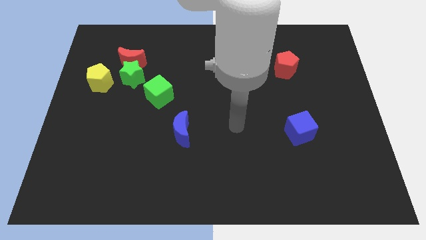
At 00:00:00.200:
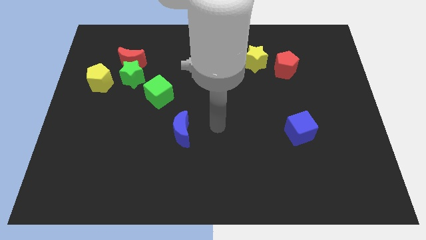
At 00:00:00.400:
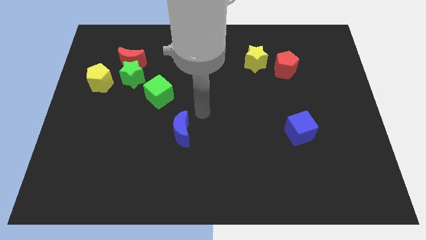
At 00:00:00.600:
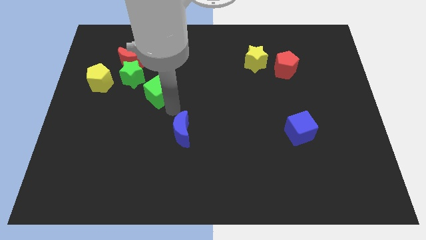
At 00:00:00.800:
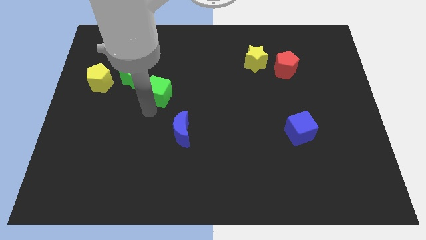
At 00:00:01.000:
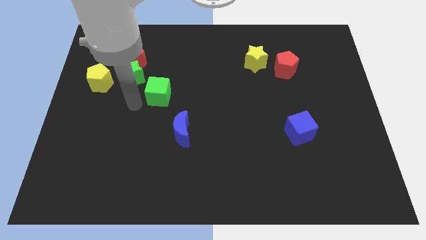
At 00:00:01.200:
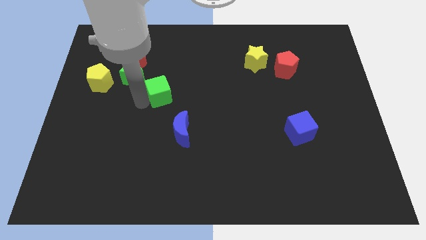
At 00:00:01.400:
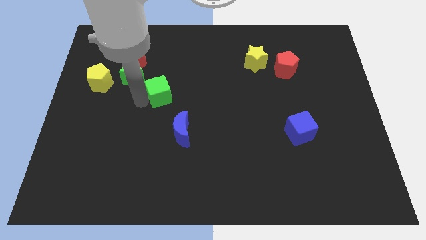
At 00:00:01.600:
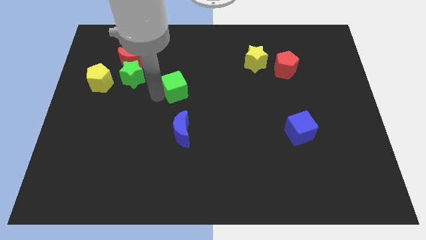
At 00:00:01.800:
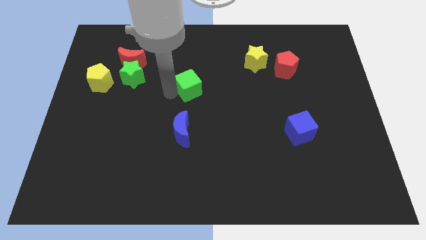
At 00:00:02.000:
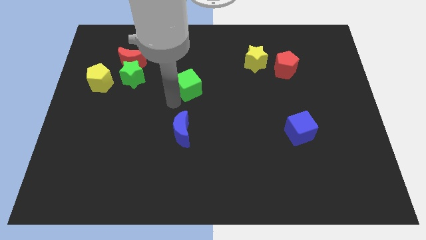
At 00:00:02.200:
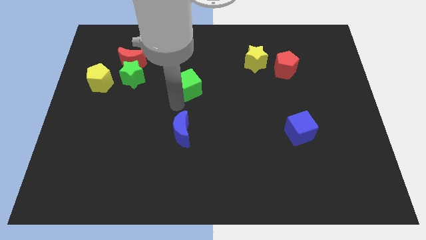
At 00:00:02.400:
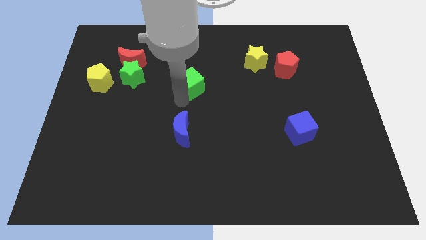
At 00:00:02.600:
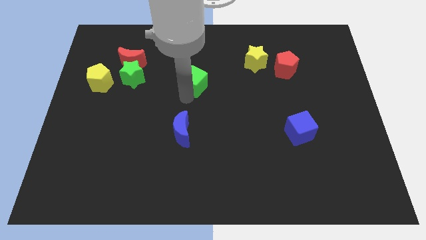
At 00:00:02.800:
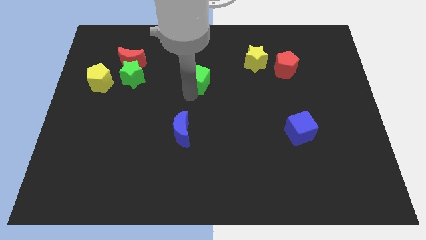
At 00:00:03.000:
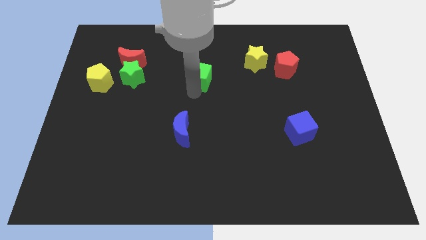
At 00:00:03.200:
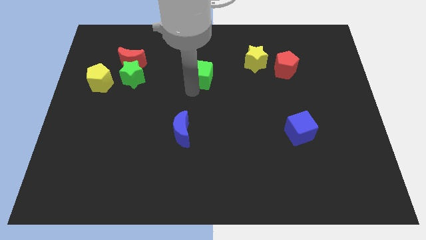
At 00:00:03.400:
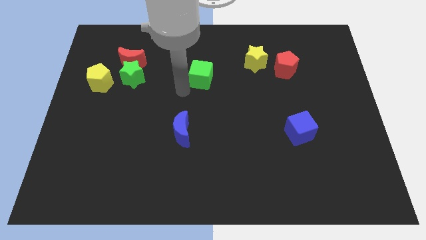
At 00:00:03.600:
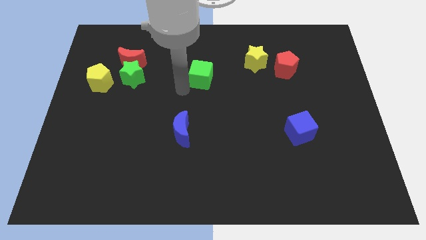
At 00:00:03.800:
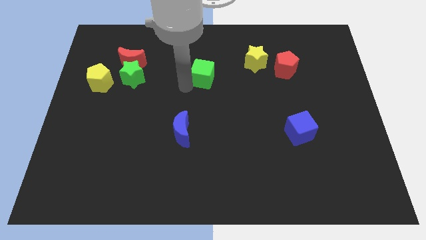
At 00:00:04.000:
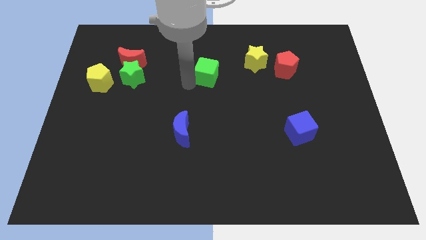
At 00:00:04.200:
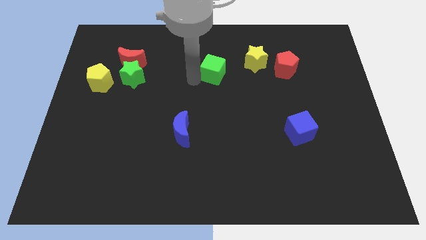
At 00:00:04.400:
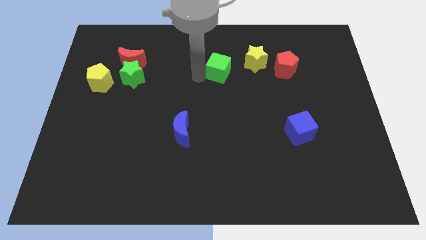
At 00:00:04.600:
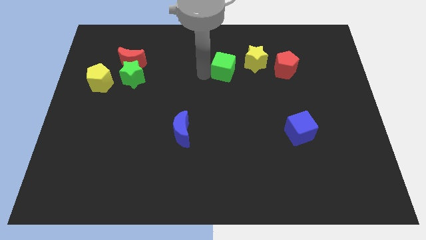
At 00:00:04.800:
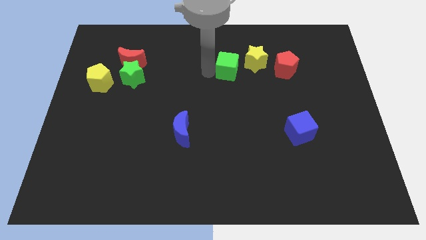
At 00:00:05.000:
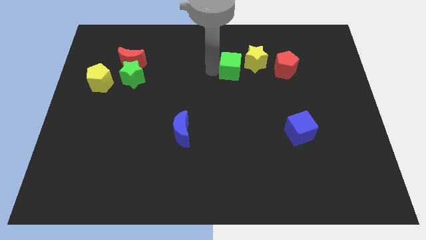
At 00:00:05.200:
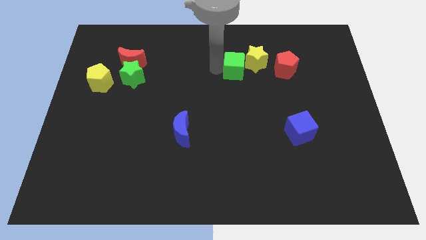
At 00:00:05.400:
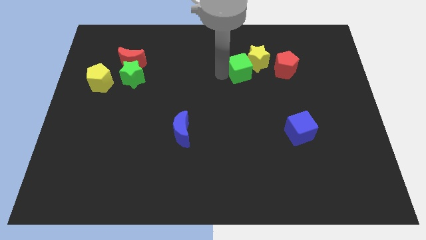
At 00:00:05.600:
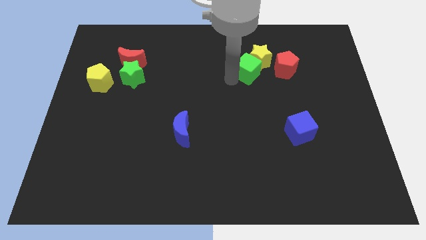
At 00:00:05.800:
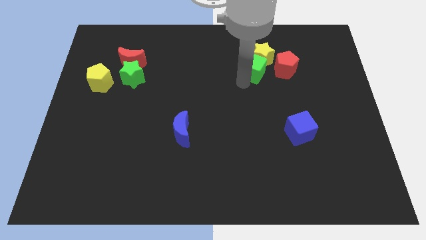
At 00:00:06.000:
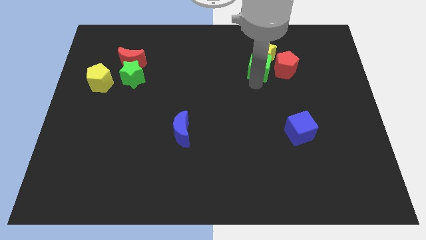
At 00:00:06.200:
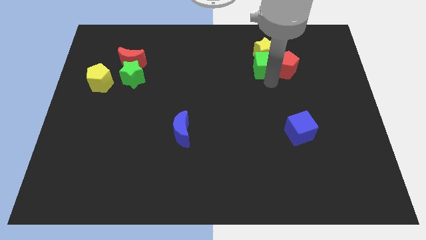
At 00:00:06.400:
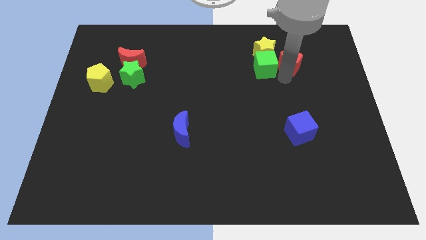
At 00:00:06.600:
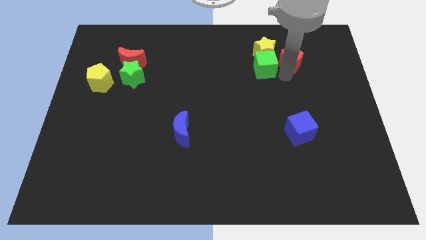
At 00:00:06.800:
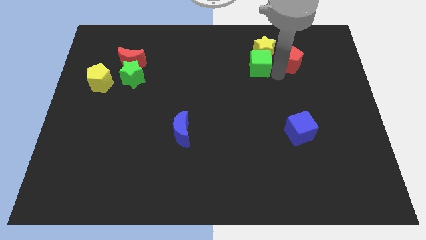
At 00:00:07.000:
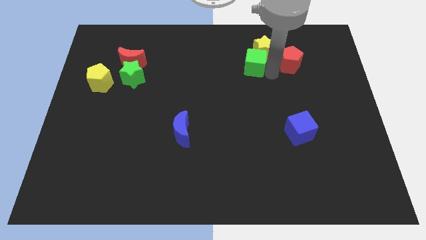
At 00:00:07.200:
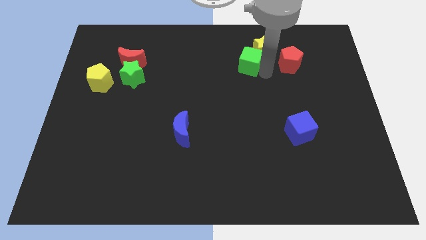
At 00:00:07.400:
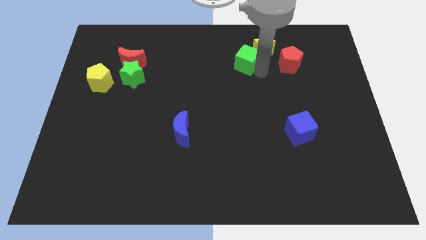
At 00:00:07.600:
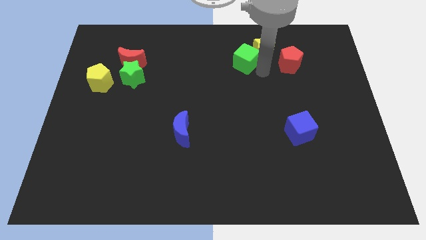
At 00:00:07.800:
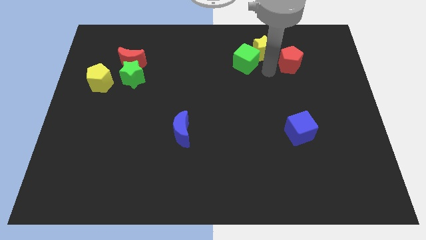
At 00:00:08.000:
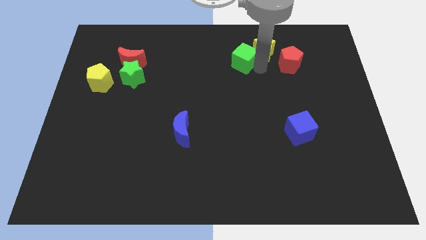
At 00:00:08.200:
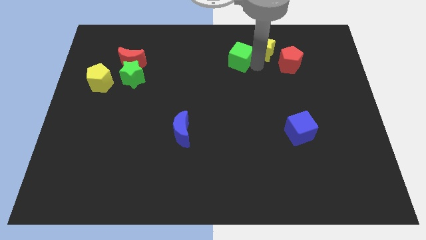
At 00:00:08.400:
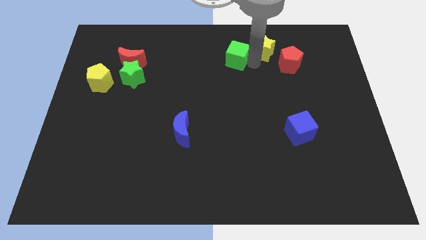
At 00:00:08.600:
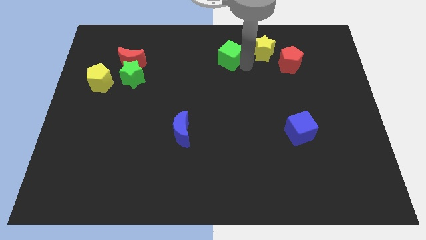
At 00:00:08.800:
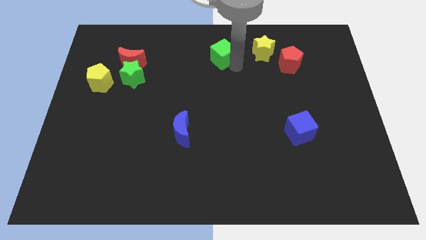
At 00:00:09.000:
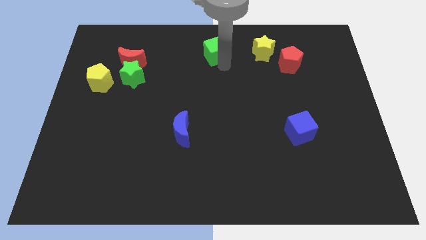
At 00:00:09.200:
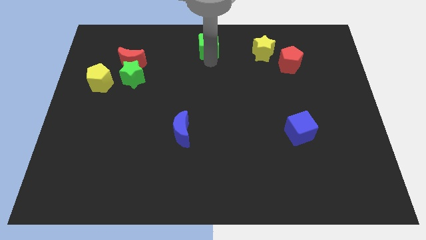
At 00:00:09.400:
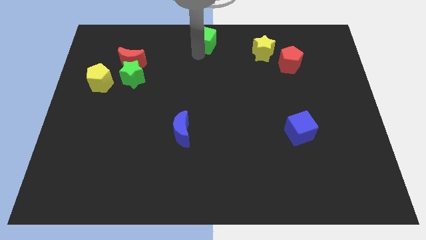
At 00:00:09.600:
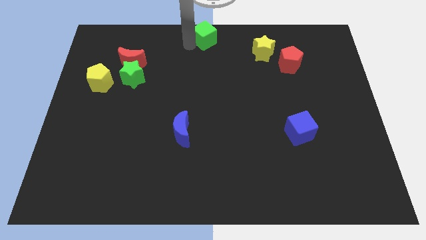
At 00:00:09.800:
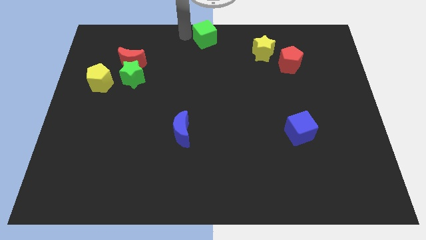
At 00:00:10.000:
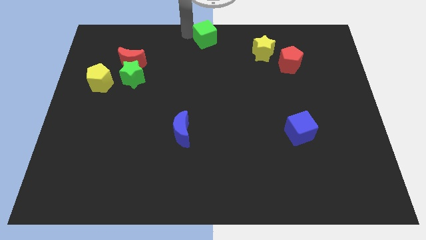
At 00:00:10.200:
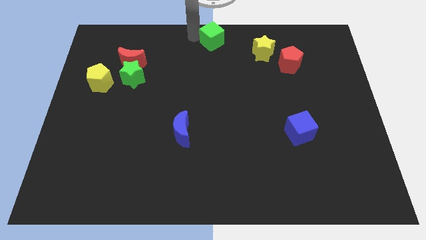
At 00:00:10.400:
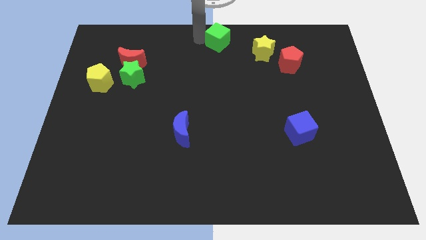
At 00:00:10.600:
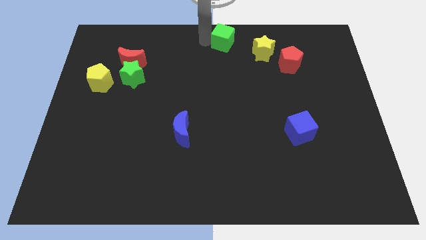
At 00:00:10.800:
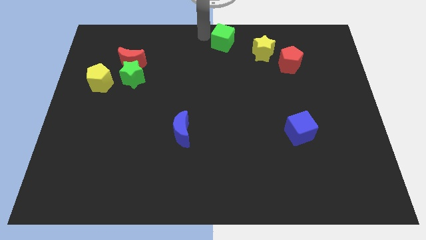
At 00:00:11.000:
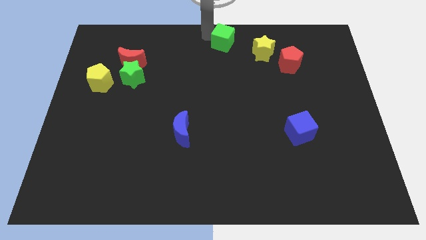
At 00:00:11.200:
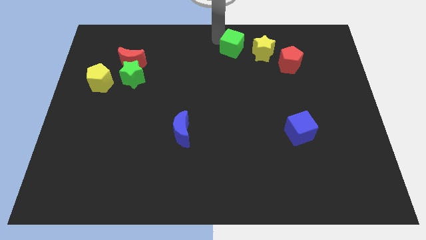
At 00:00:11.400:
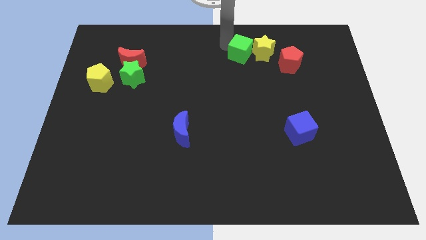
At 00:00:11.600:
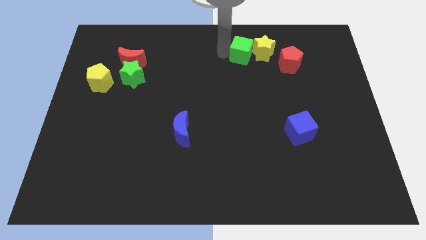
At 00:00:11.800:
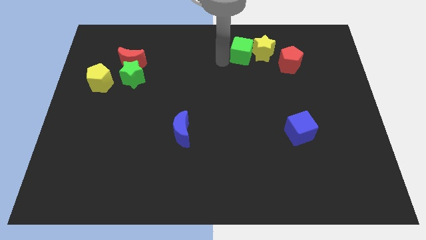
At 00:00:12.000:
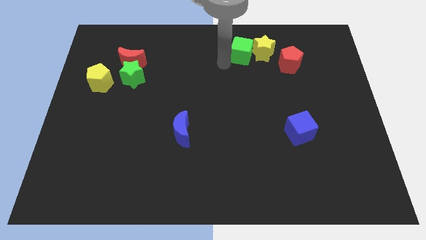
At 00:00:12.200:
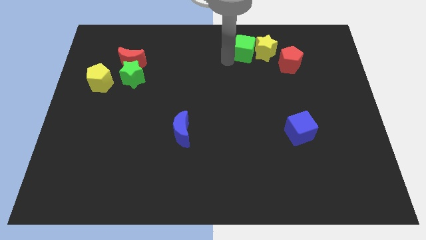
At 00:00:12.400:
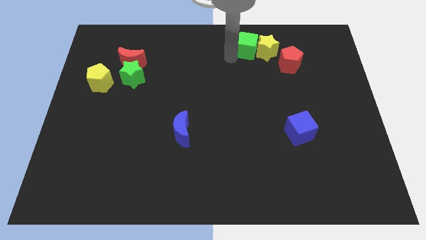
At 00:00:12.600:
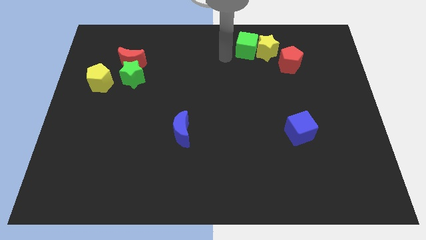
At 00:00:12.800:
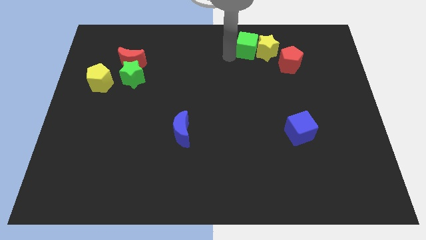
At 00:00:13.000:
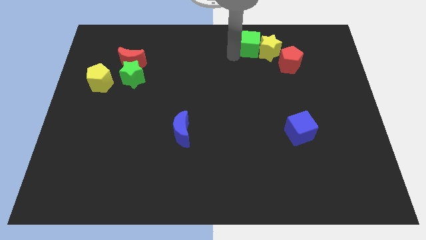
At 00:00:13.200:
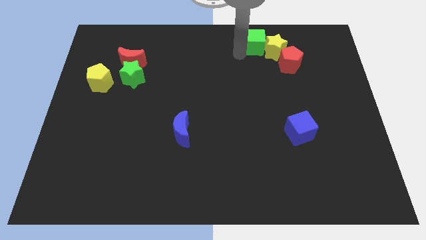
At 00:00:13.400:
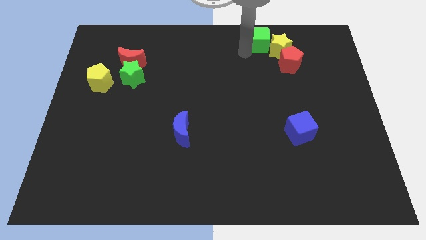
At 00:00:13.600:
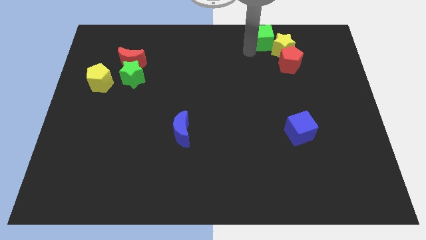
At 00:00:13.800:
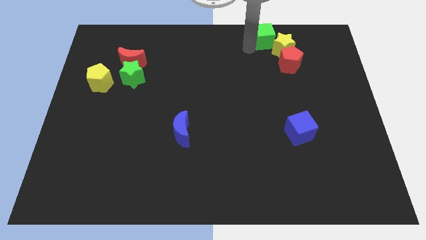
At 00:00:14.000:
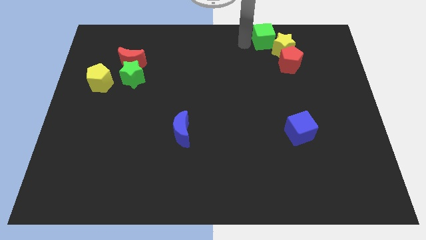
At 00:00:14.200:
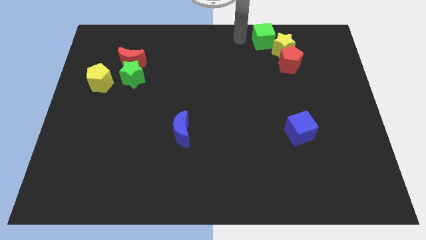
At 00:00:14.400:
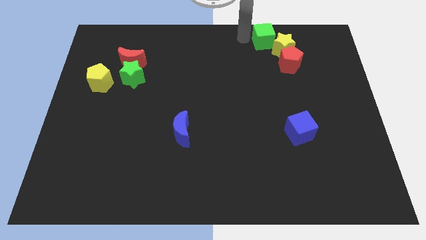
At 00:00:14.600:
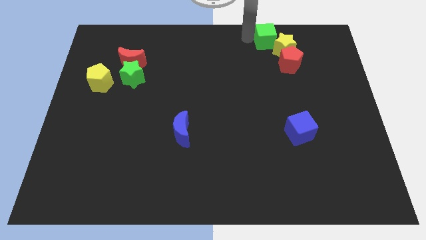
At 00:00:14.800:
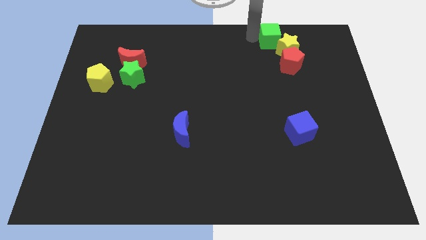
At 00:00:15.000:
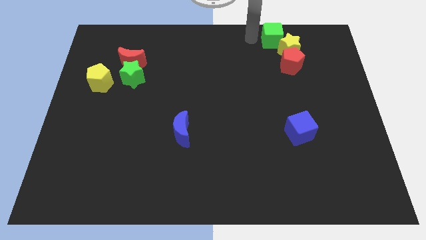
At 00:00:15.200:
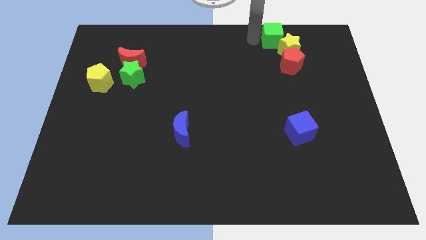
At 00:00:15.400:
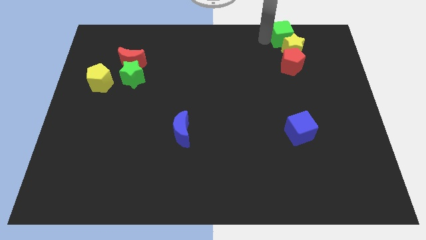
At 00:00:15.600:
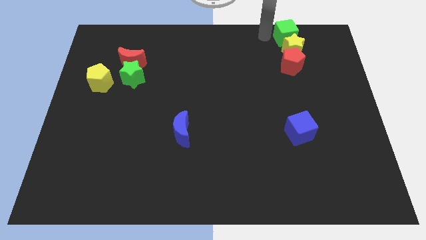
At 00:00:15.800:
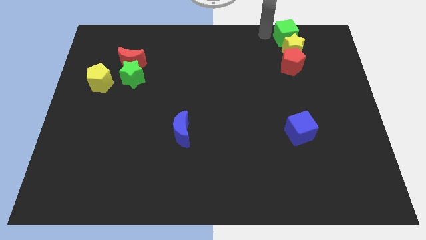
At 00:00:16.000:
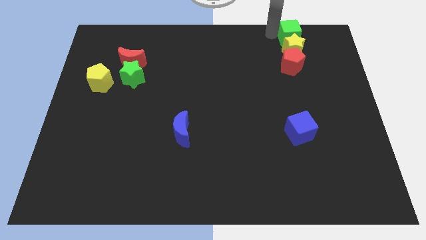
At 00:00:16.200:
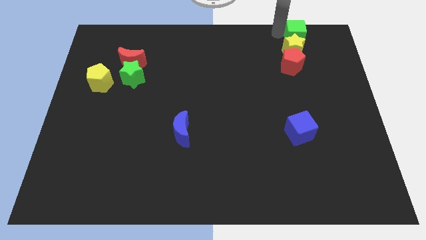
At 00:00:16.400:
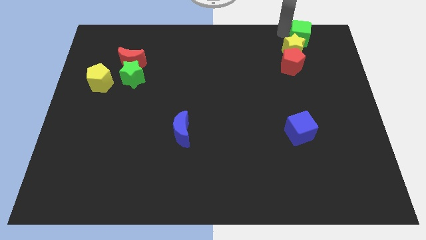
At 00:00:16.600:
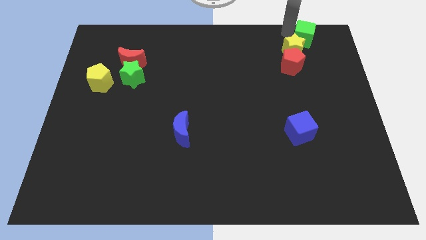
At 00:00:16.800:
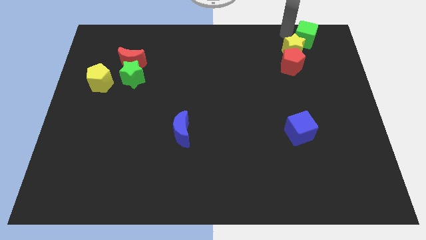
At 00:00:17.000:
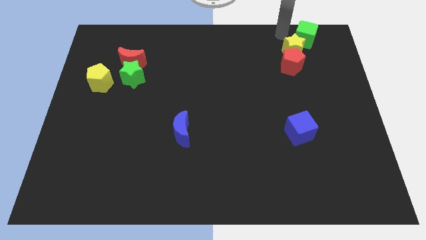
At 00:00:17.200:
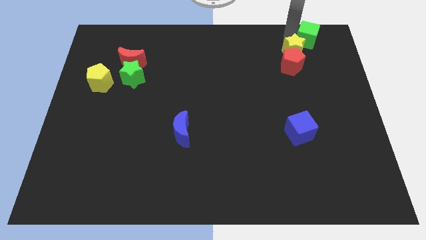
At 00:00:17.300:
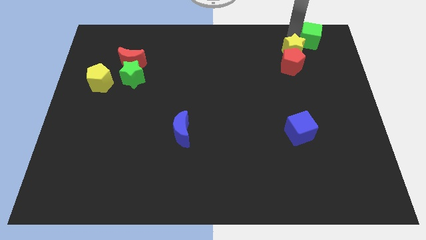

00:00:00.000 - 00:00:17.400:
put the green cube to the top right of the board
